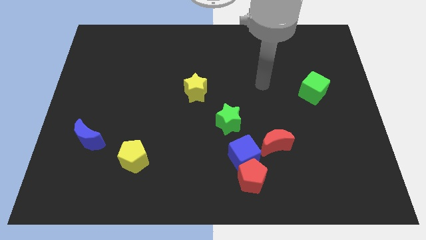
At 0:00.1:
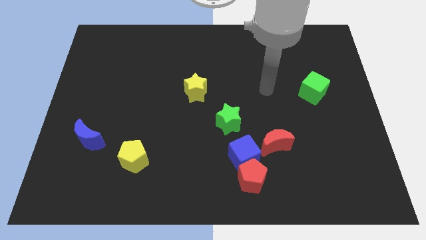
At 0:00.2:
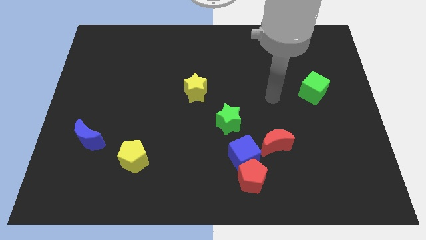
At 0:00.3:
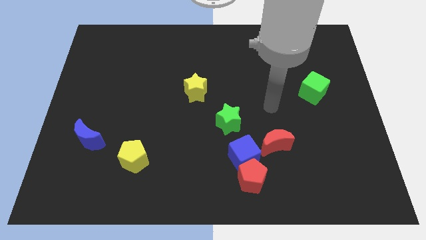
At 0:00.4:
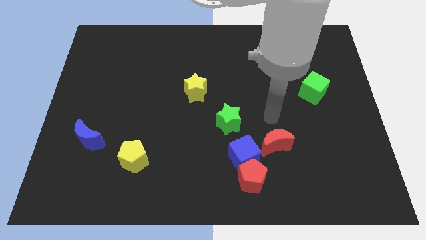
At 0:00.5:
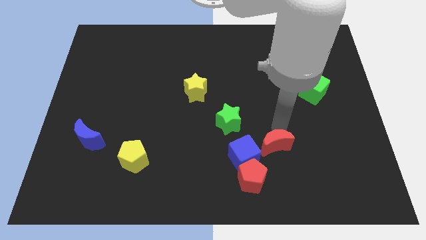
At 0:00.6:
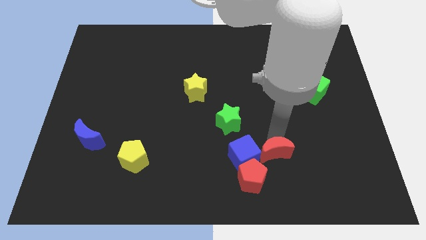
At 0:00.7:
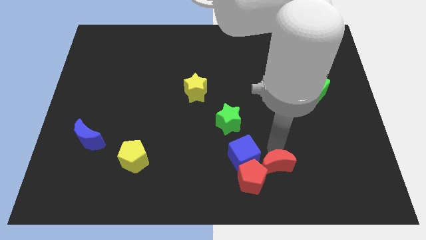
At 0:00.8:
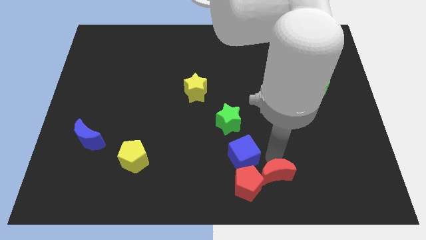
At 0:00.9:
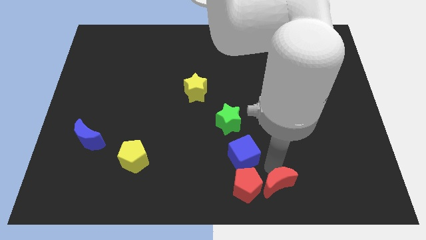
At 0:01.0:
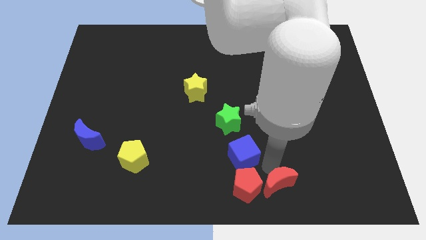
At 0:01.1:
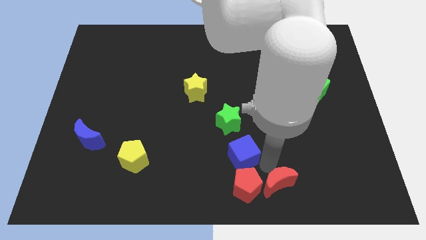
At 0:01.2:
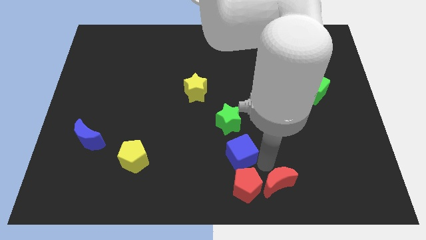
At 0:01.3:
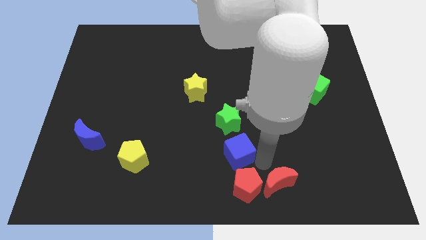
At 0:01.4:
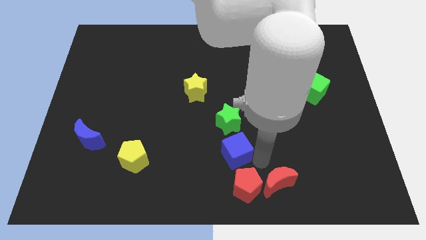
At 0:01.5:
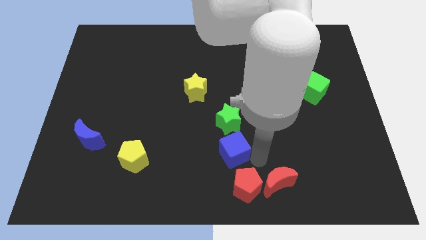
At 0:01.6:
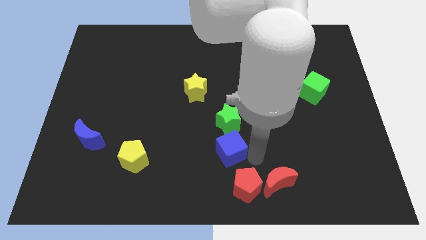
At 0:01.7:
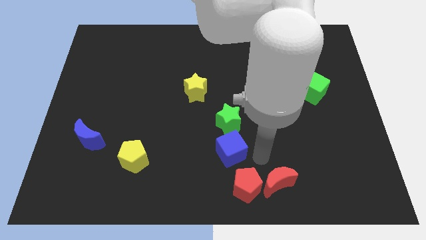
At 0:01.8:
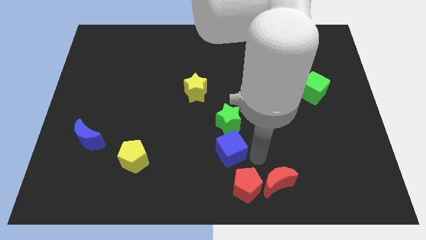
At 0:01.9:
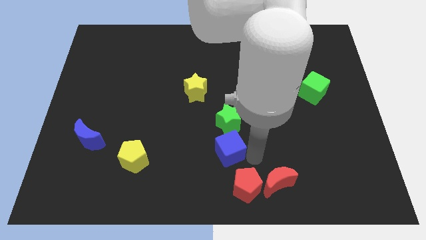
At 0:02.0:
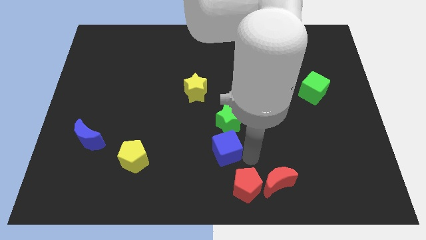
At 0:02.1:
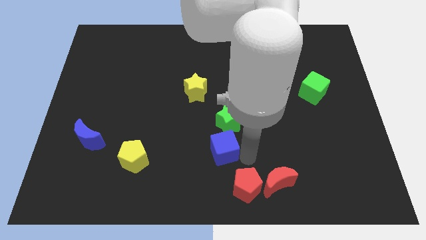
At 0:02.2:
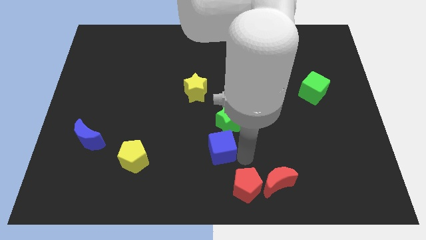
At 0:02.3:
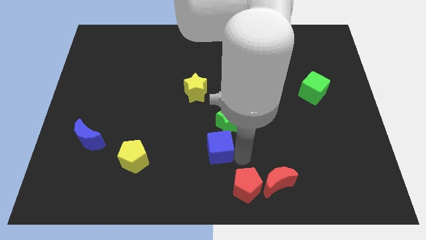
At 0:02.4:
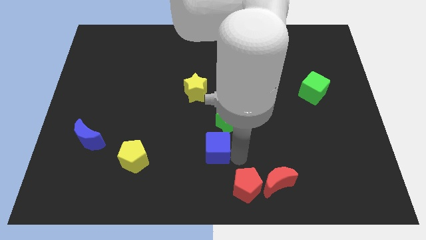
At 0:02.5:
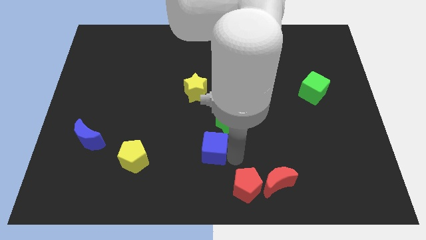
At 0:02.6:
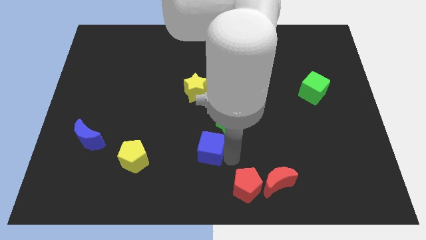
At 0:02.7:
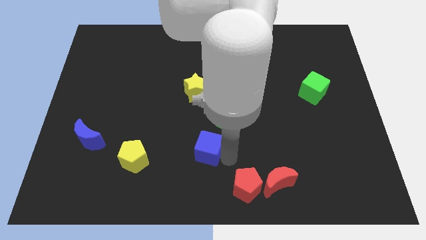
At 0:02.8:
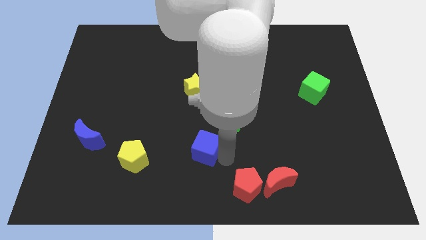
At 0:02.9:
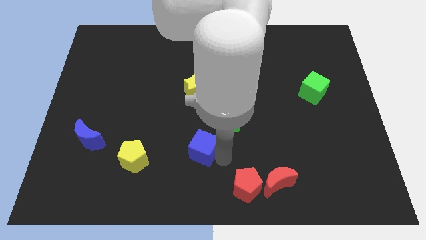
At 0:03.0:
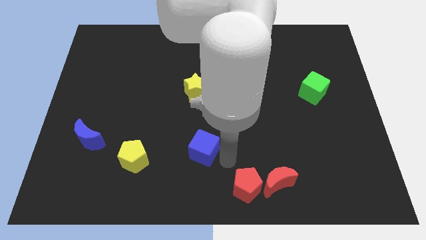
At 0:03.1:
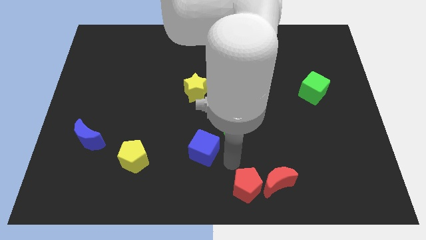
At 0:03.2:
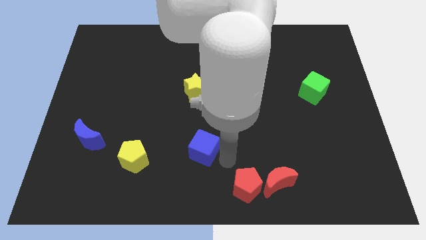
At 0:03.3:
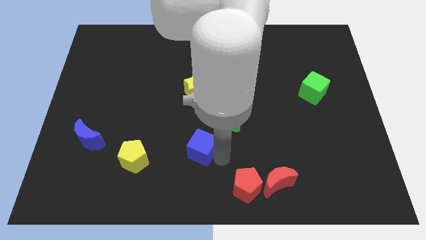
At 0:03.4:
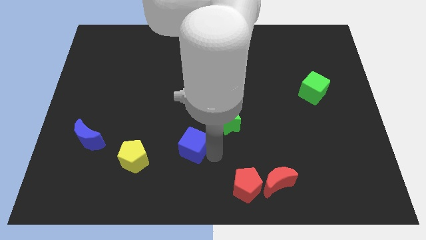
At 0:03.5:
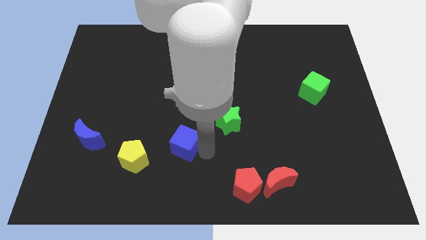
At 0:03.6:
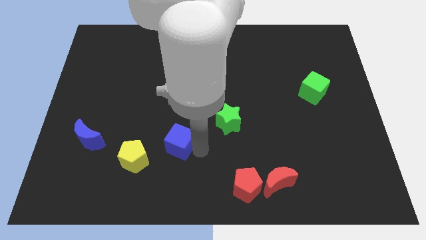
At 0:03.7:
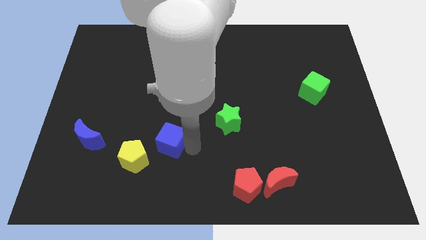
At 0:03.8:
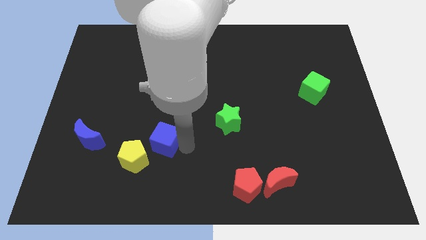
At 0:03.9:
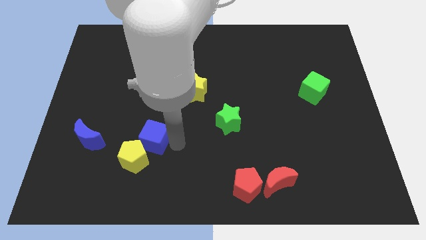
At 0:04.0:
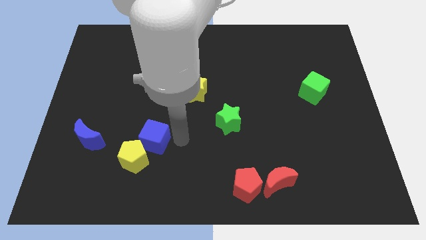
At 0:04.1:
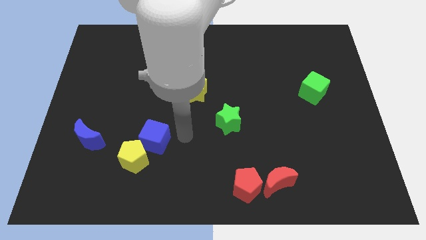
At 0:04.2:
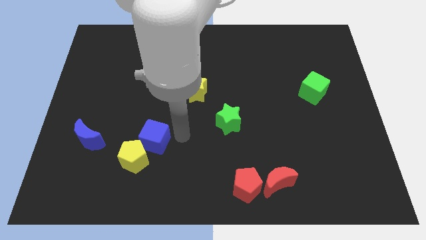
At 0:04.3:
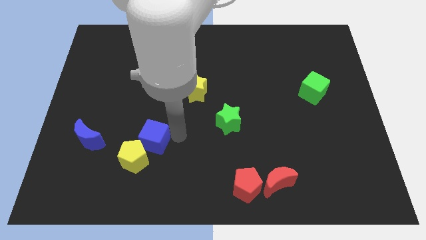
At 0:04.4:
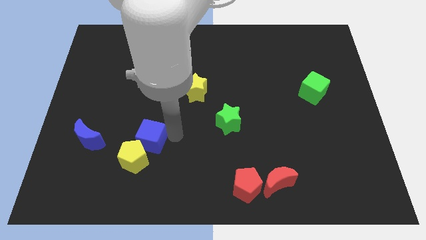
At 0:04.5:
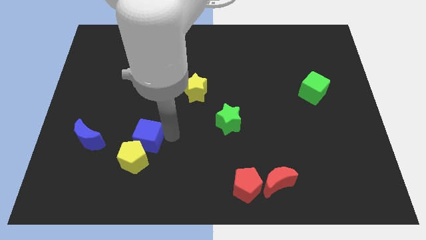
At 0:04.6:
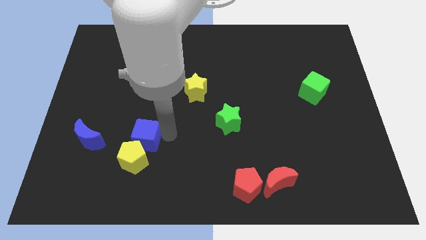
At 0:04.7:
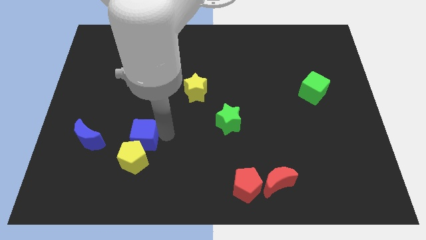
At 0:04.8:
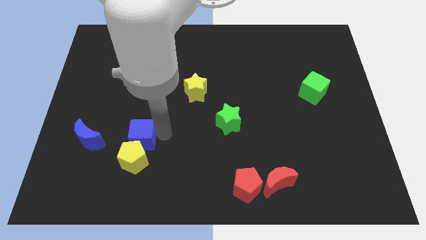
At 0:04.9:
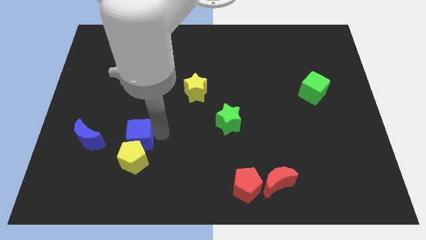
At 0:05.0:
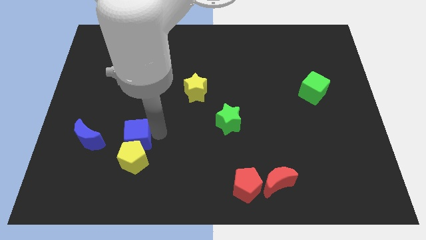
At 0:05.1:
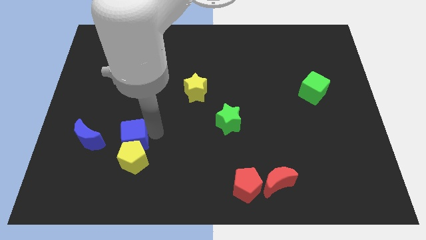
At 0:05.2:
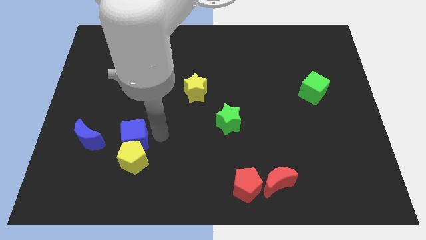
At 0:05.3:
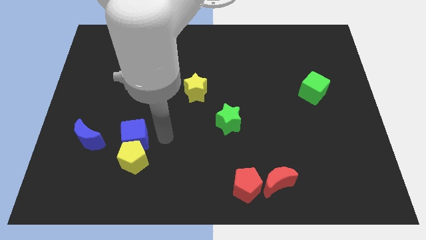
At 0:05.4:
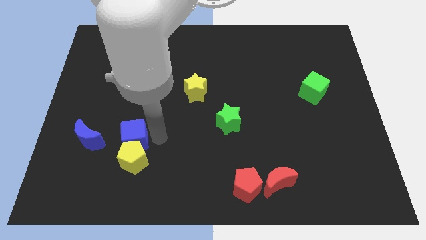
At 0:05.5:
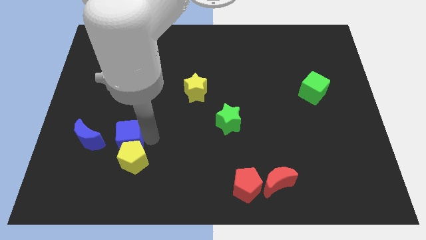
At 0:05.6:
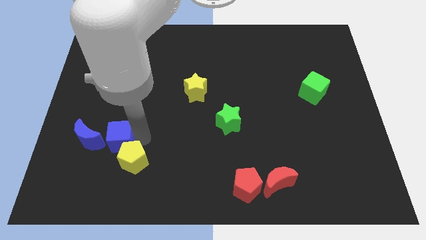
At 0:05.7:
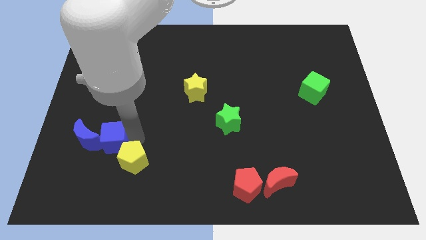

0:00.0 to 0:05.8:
push the blue cube close to the blue moon

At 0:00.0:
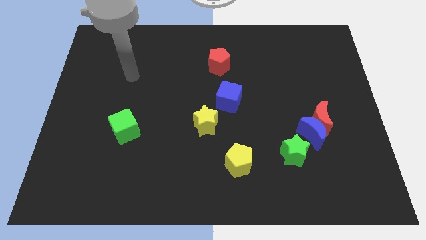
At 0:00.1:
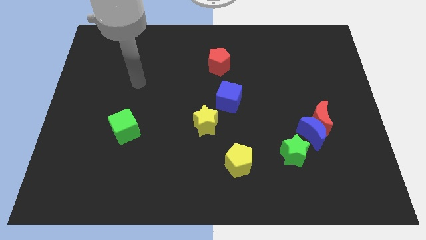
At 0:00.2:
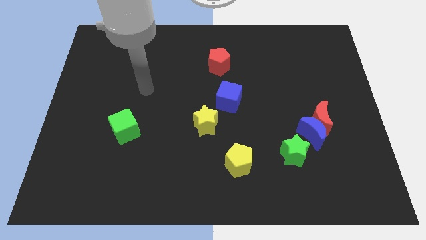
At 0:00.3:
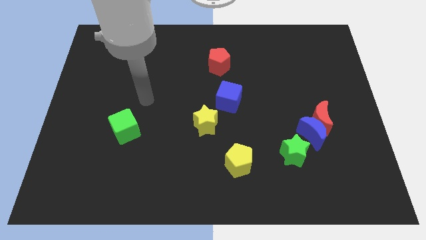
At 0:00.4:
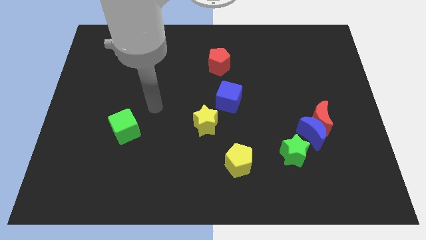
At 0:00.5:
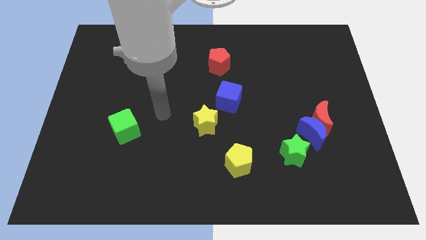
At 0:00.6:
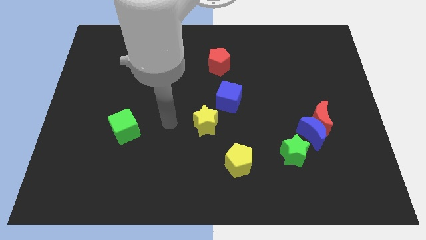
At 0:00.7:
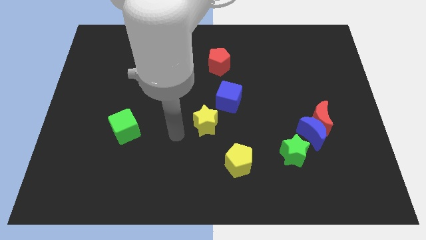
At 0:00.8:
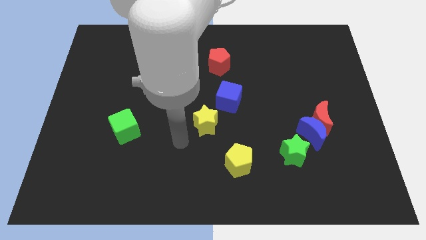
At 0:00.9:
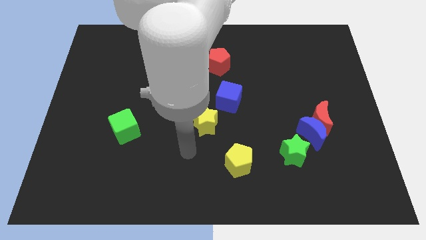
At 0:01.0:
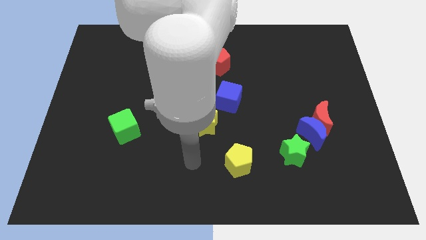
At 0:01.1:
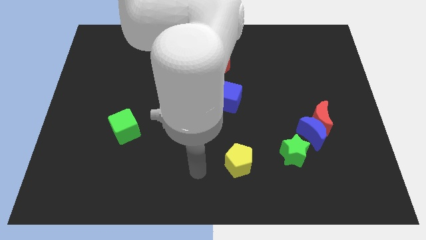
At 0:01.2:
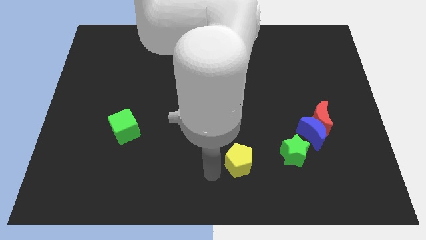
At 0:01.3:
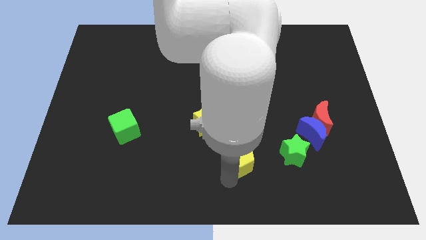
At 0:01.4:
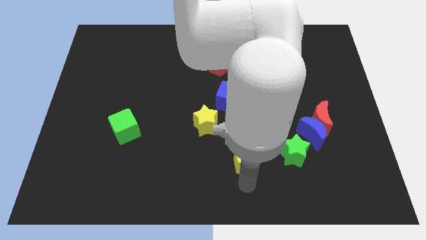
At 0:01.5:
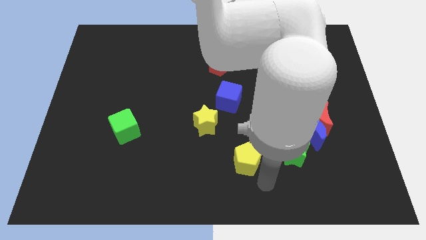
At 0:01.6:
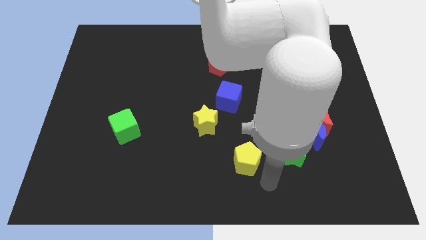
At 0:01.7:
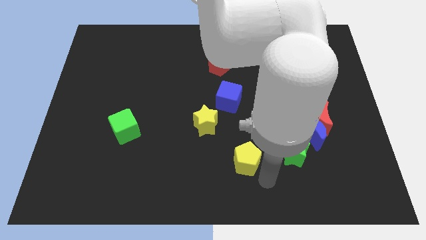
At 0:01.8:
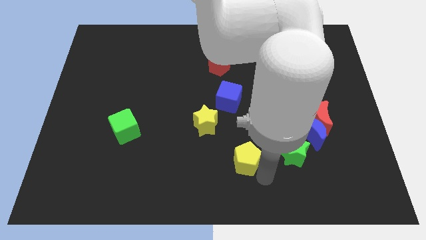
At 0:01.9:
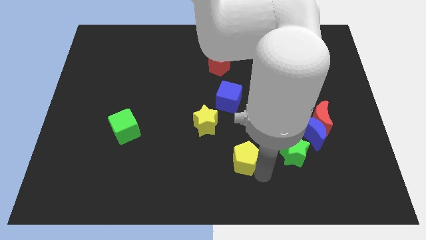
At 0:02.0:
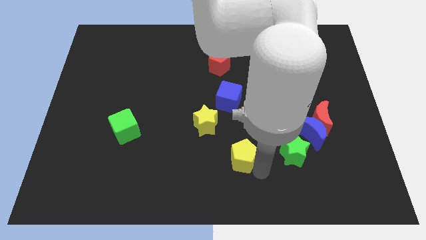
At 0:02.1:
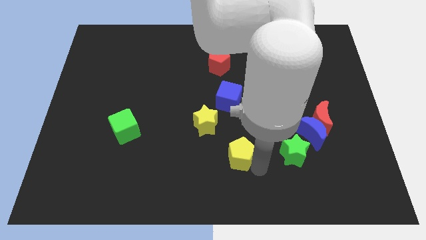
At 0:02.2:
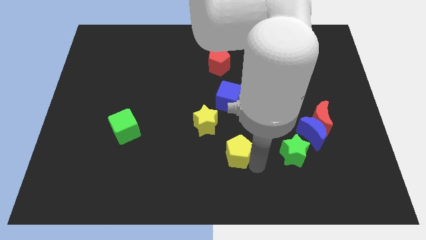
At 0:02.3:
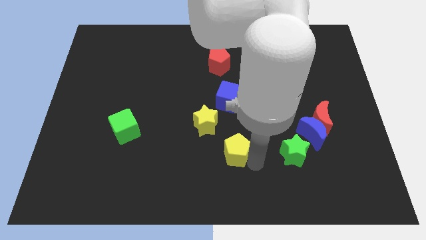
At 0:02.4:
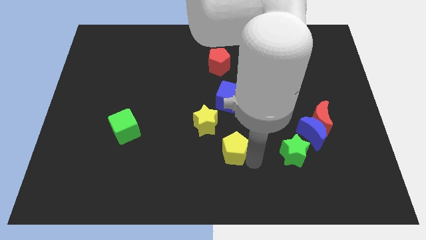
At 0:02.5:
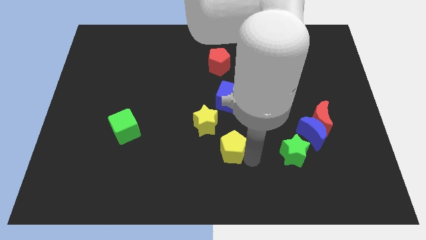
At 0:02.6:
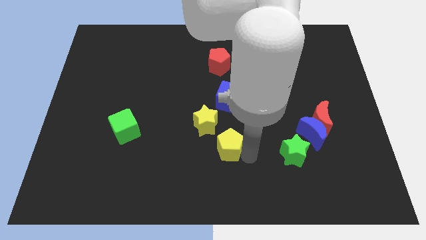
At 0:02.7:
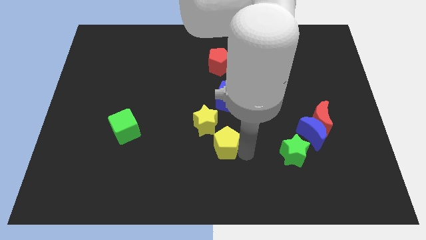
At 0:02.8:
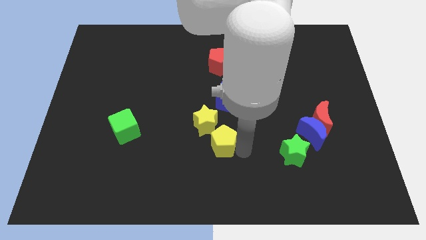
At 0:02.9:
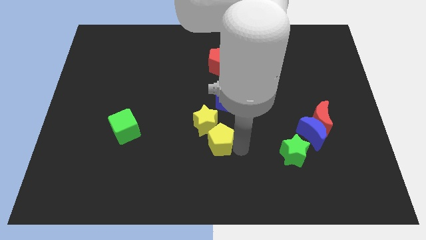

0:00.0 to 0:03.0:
push the yellow pentagon next to the yellow star
